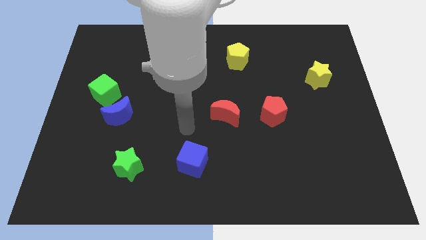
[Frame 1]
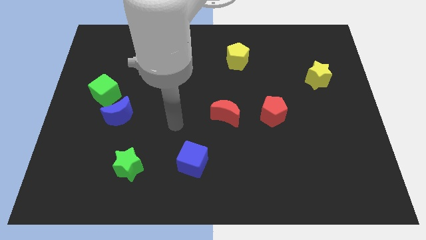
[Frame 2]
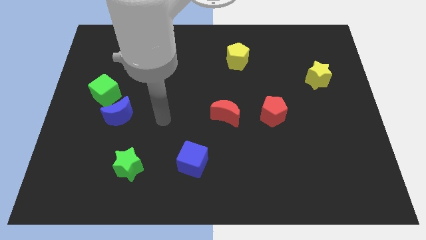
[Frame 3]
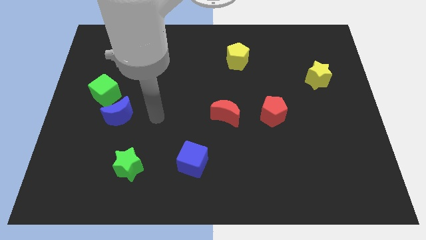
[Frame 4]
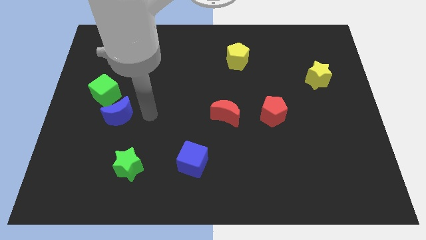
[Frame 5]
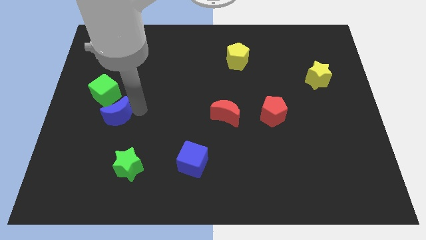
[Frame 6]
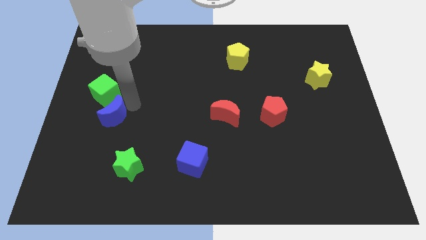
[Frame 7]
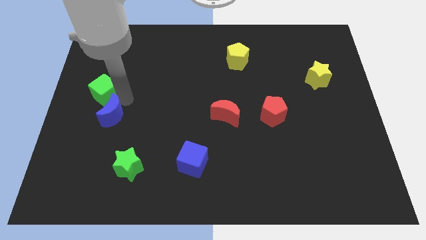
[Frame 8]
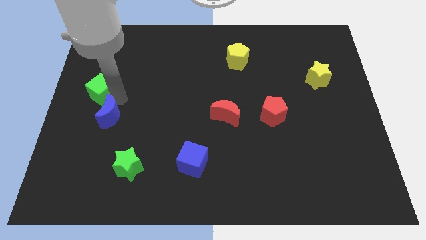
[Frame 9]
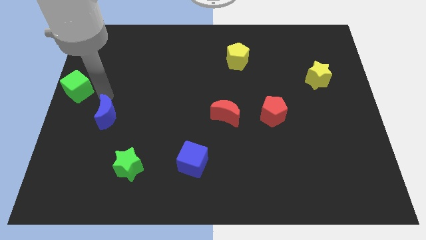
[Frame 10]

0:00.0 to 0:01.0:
separate the blue moon from the green cube

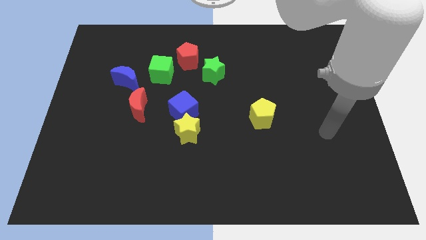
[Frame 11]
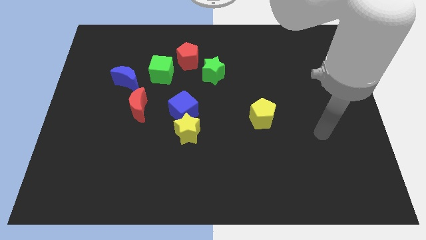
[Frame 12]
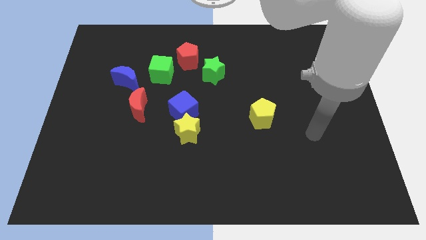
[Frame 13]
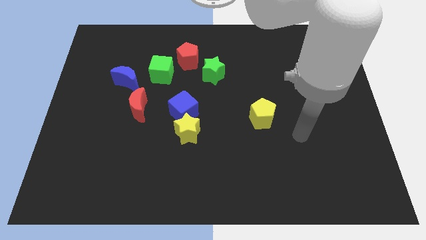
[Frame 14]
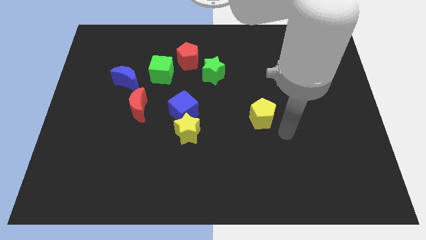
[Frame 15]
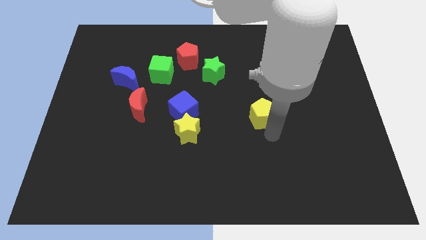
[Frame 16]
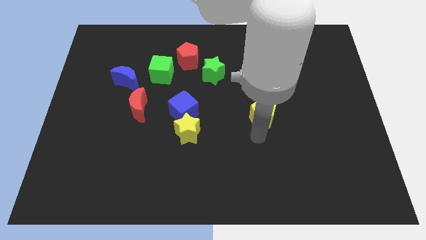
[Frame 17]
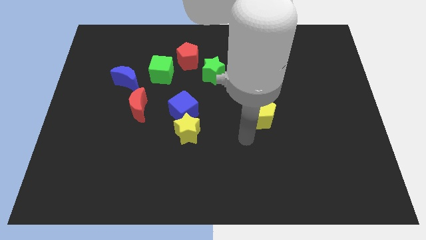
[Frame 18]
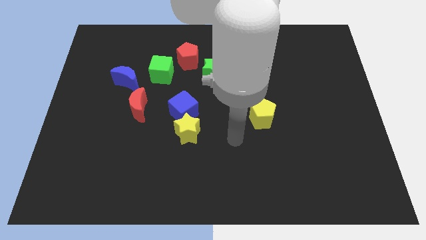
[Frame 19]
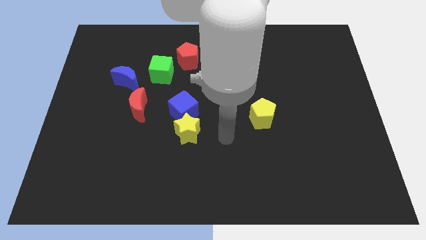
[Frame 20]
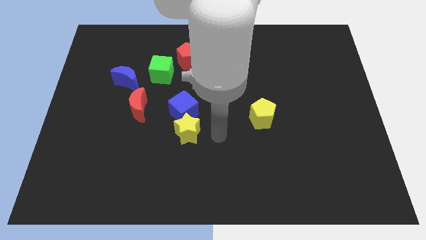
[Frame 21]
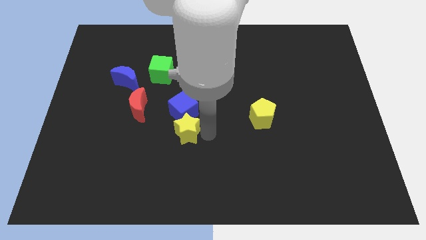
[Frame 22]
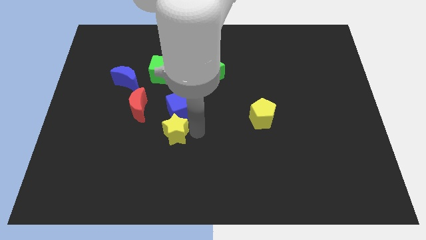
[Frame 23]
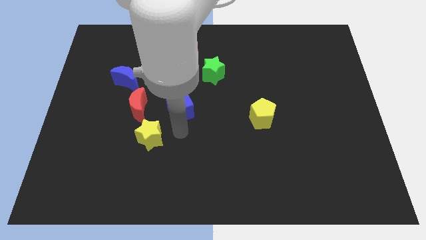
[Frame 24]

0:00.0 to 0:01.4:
separate the blue cube from the yellow star

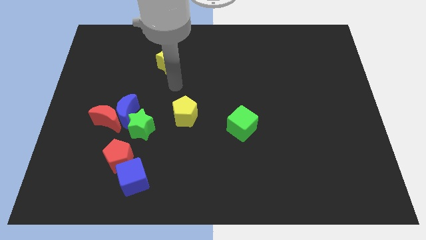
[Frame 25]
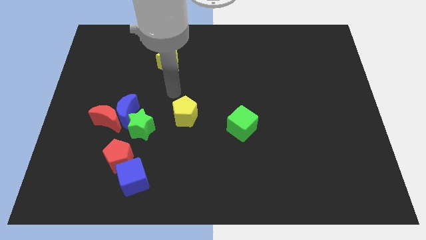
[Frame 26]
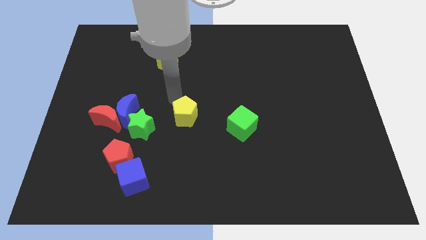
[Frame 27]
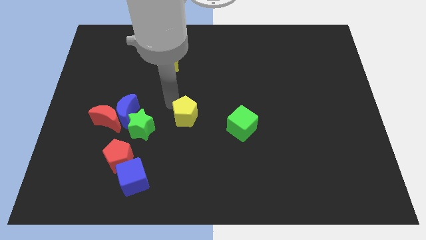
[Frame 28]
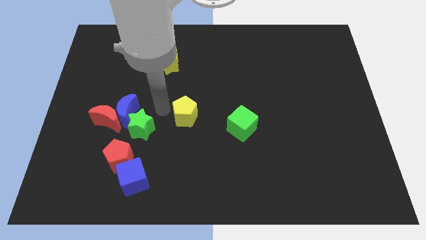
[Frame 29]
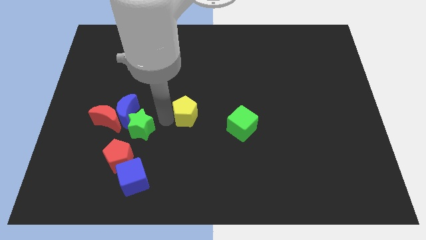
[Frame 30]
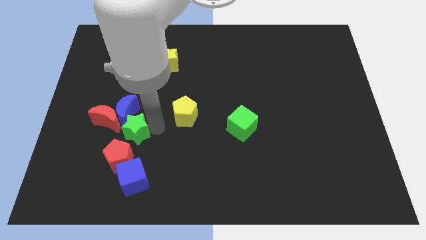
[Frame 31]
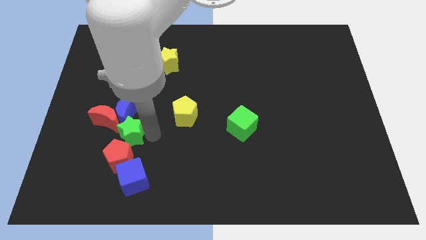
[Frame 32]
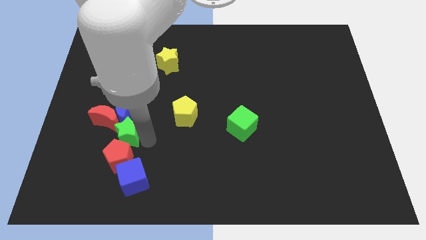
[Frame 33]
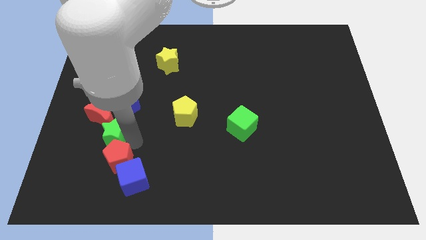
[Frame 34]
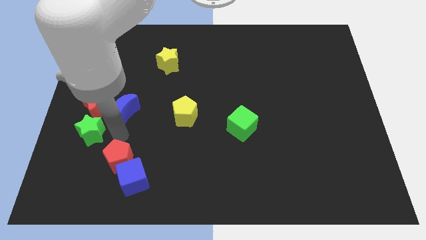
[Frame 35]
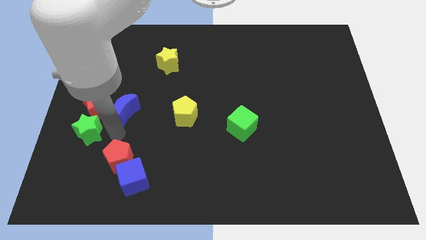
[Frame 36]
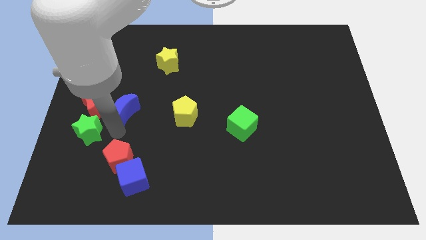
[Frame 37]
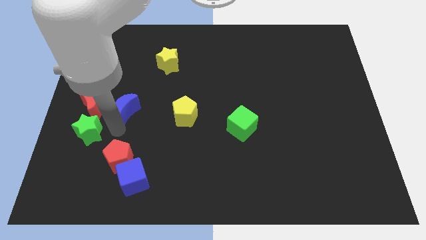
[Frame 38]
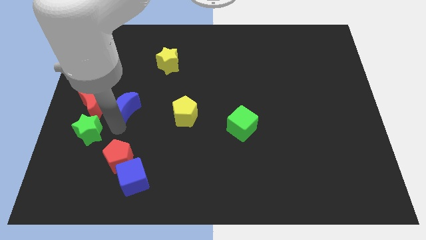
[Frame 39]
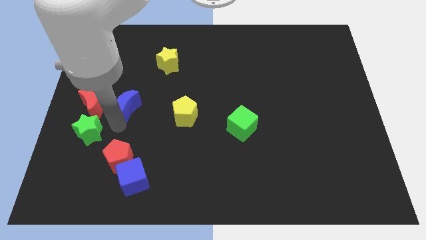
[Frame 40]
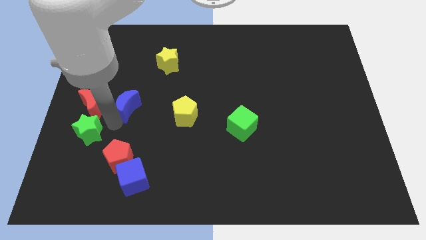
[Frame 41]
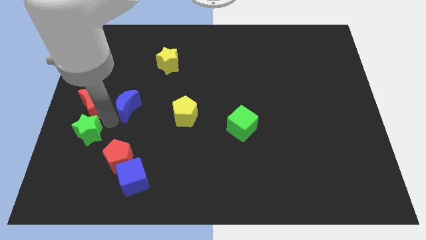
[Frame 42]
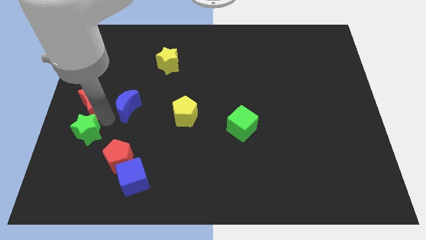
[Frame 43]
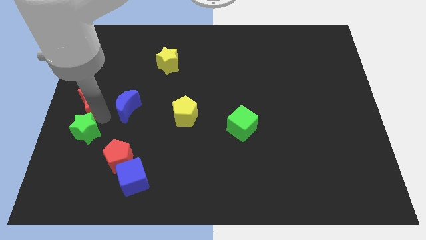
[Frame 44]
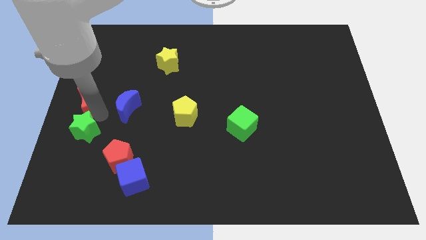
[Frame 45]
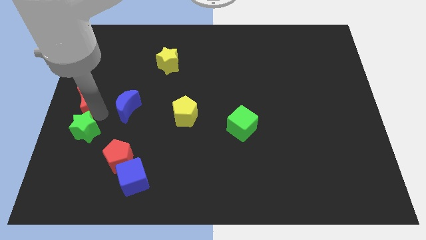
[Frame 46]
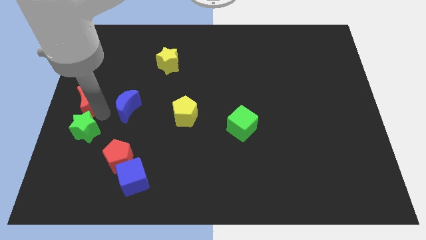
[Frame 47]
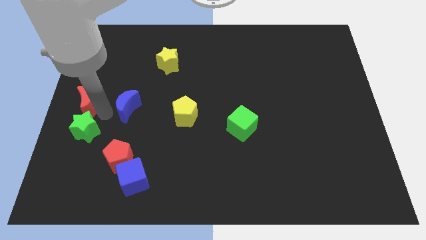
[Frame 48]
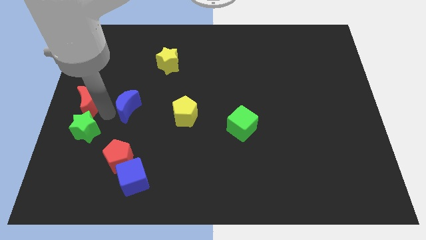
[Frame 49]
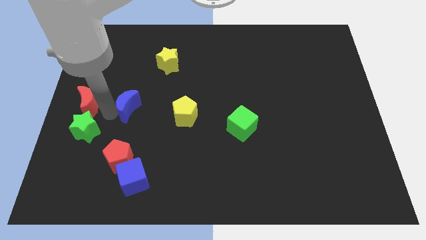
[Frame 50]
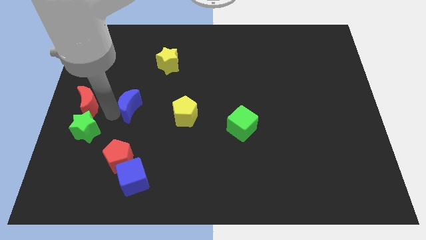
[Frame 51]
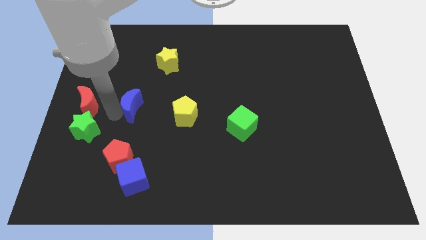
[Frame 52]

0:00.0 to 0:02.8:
move the blue moon away from the red moon and green star

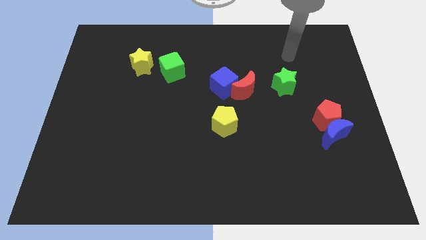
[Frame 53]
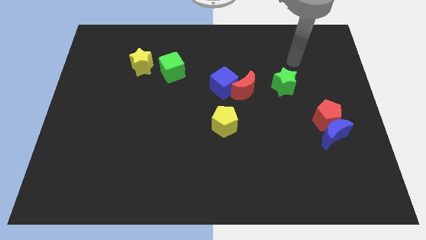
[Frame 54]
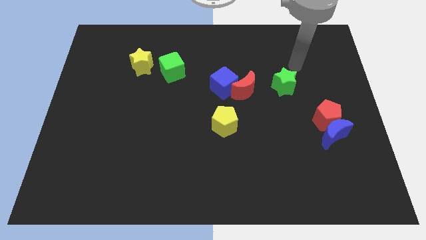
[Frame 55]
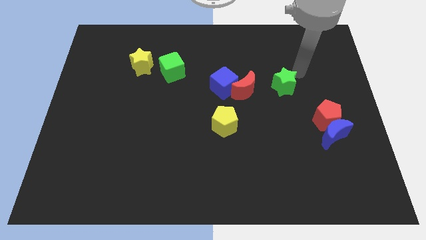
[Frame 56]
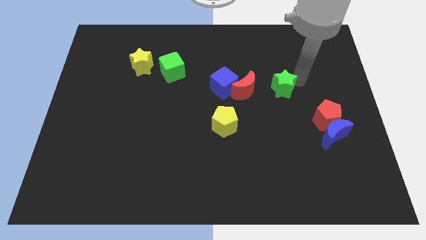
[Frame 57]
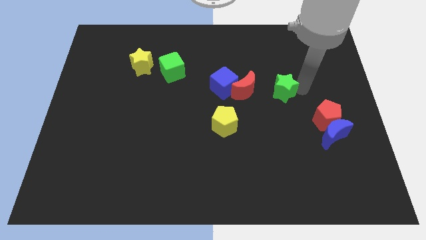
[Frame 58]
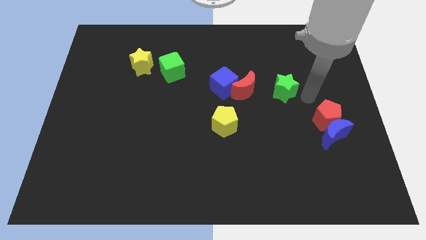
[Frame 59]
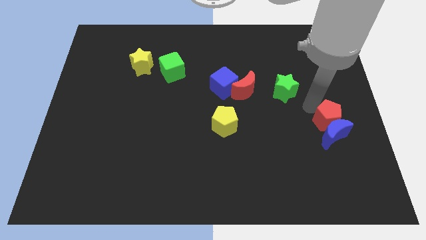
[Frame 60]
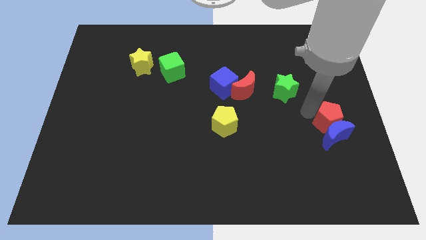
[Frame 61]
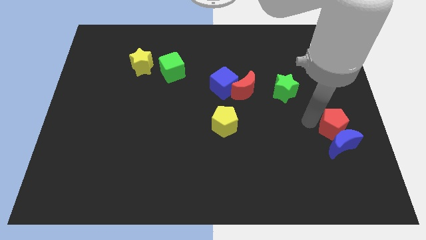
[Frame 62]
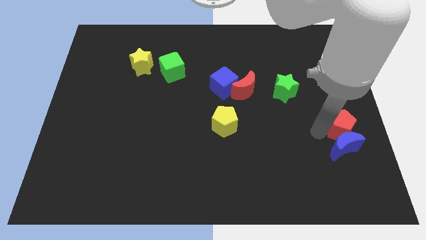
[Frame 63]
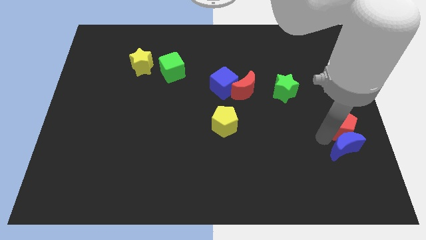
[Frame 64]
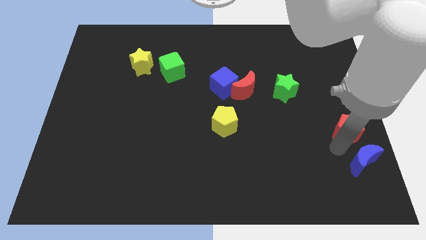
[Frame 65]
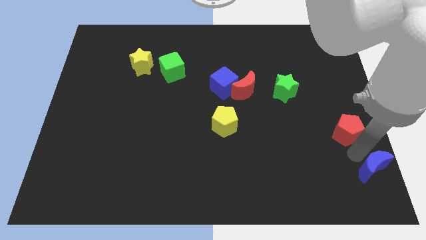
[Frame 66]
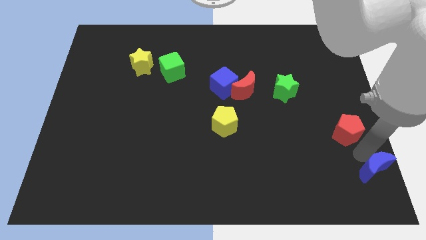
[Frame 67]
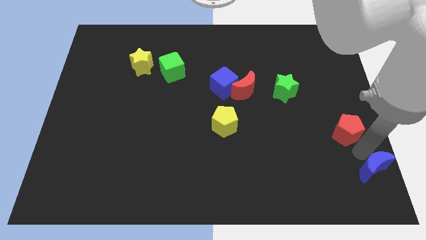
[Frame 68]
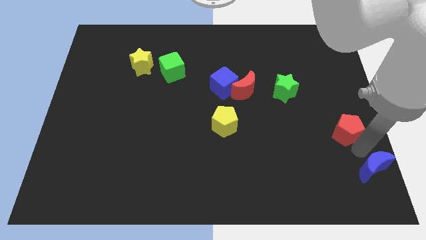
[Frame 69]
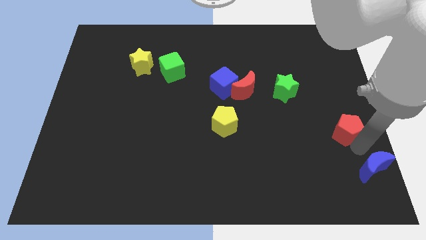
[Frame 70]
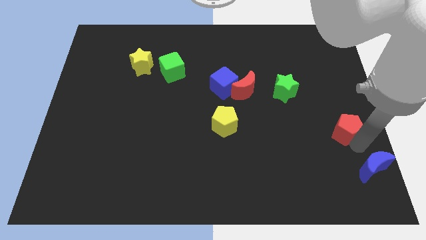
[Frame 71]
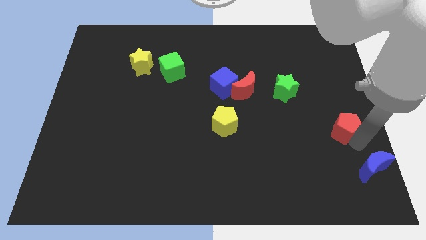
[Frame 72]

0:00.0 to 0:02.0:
pull the red pentagon apart from the blue moon

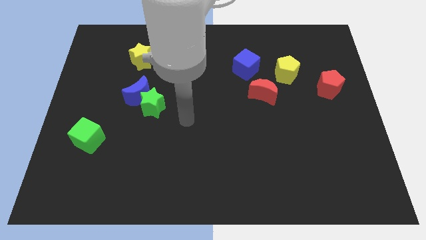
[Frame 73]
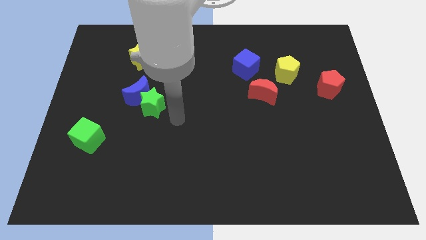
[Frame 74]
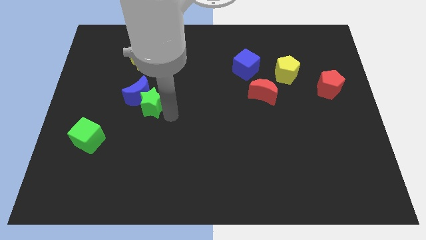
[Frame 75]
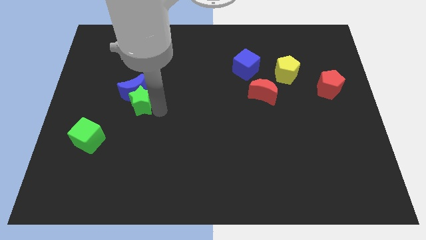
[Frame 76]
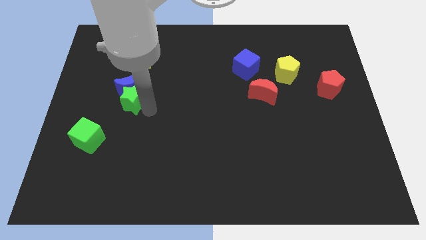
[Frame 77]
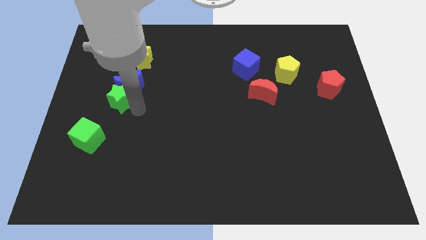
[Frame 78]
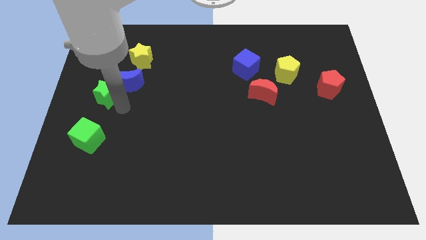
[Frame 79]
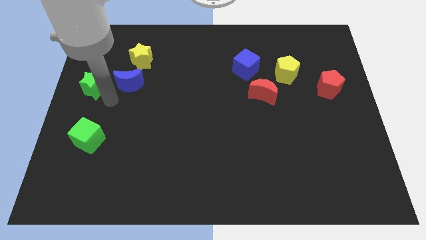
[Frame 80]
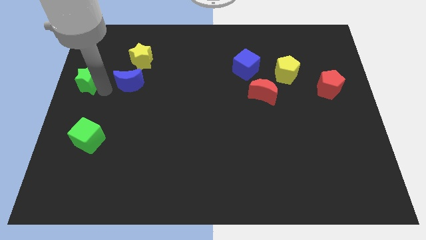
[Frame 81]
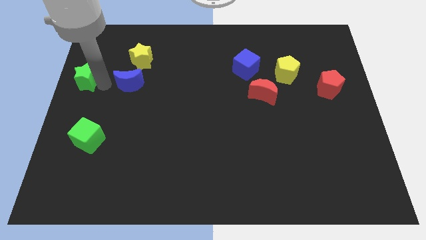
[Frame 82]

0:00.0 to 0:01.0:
move the blue moon away from the green star

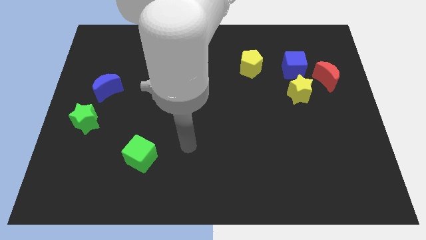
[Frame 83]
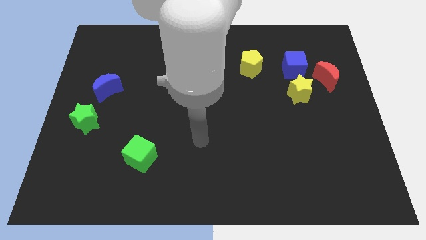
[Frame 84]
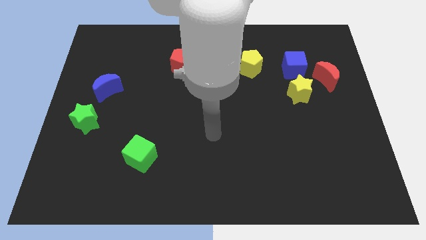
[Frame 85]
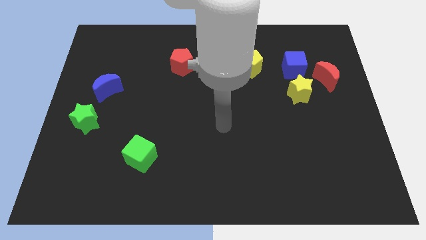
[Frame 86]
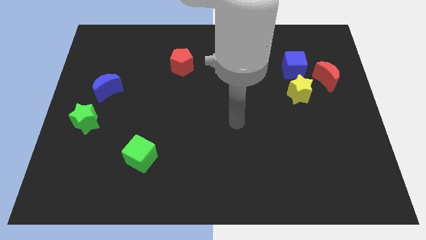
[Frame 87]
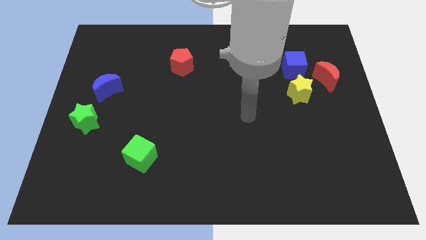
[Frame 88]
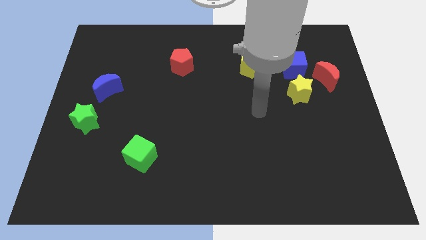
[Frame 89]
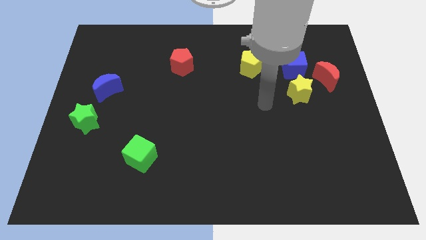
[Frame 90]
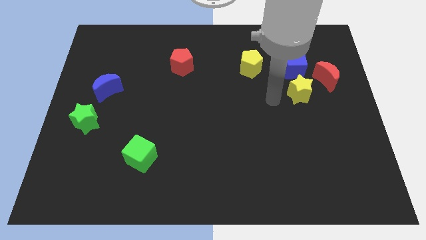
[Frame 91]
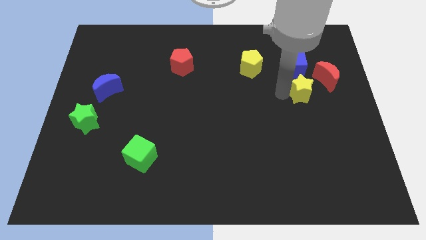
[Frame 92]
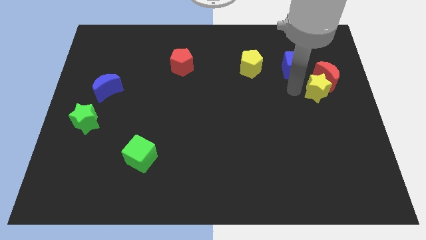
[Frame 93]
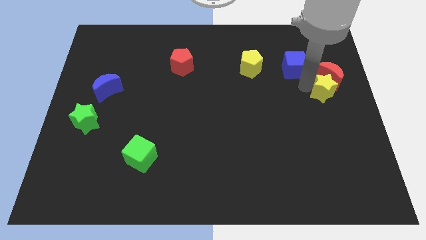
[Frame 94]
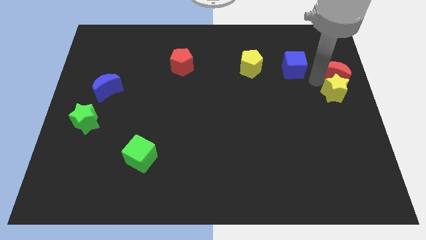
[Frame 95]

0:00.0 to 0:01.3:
separate the blue cube from the yellow star and red moon
